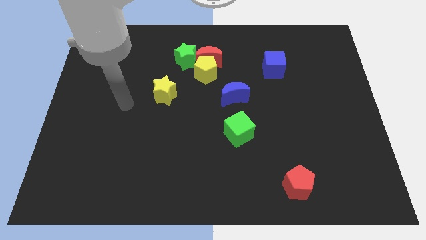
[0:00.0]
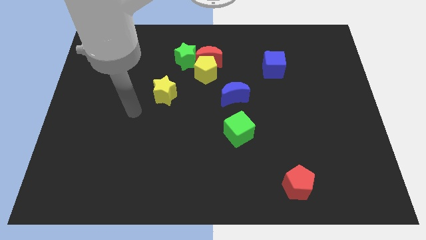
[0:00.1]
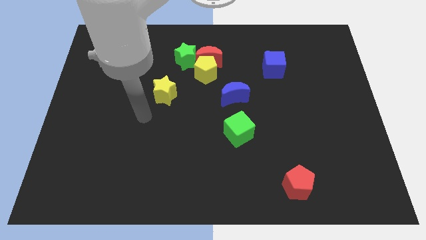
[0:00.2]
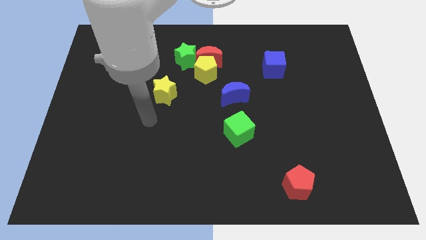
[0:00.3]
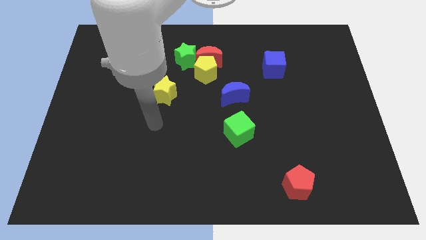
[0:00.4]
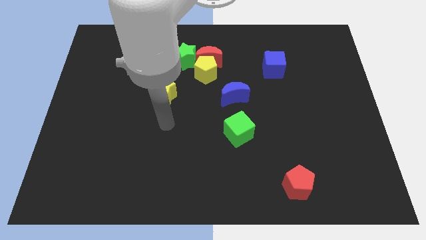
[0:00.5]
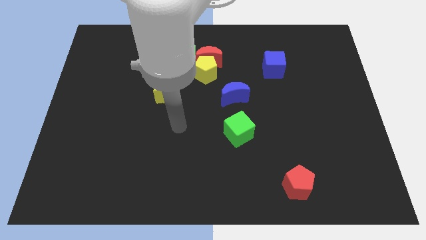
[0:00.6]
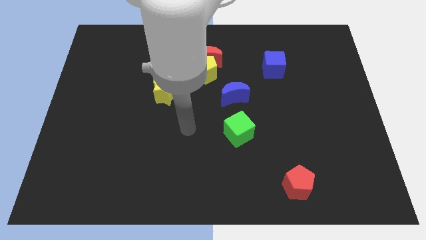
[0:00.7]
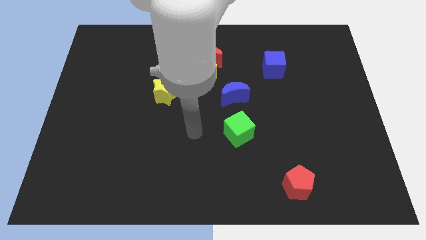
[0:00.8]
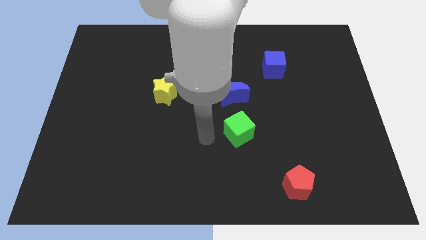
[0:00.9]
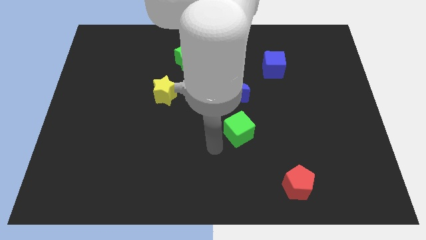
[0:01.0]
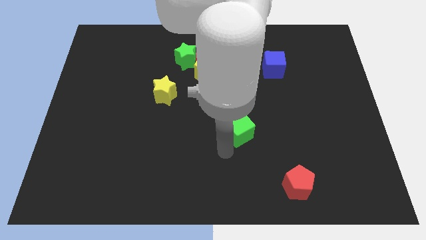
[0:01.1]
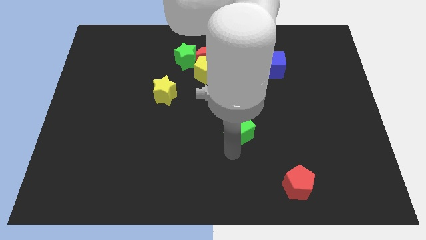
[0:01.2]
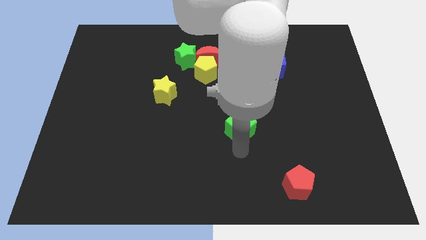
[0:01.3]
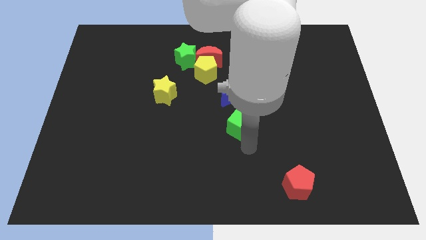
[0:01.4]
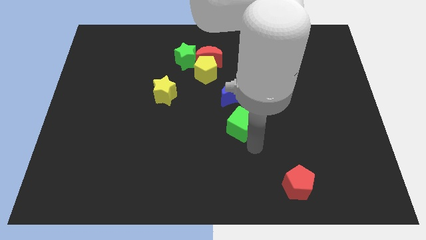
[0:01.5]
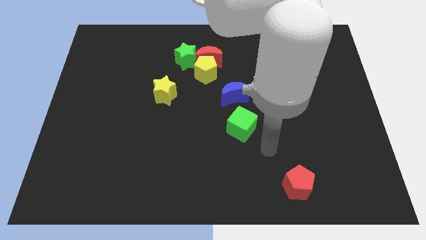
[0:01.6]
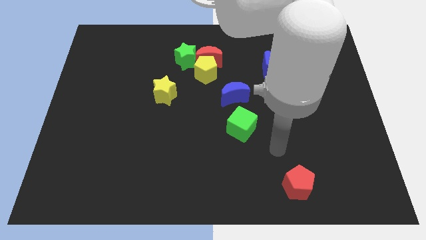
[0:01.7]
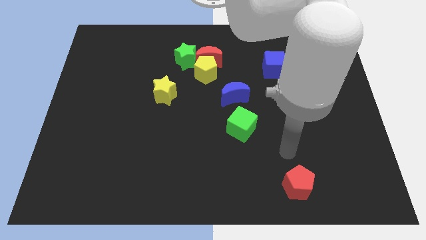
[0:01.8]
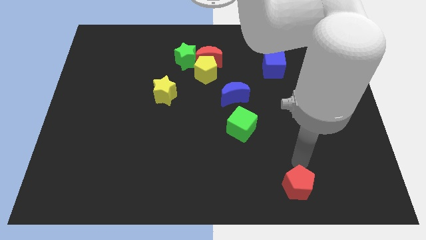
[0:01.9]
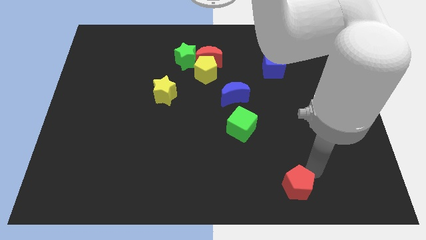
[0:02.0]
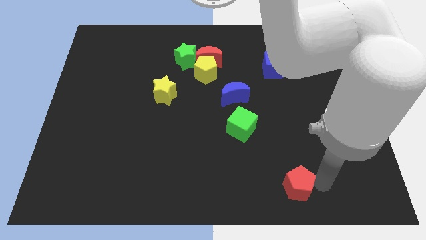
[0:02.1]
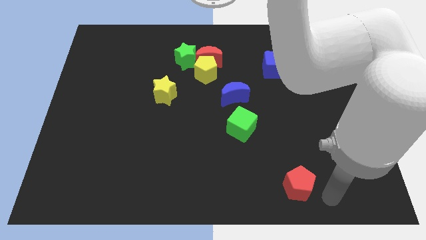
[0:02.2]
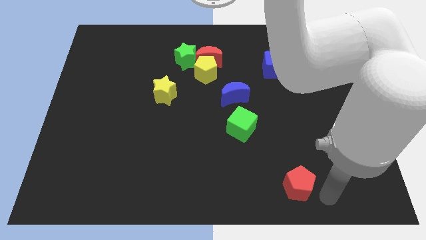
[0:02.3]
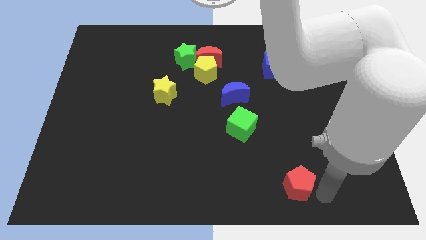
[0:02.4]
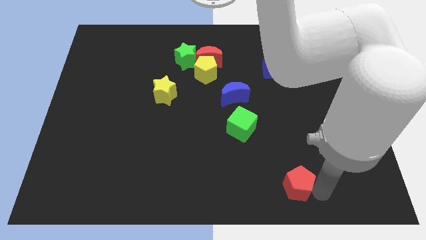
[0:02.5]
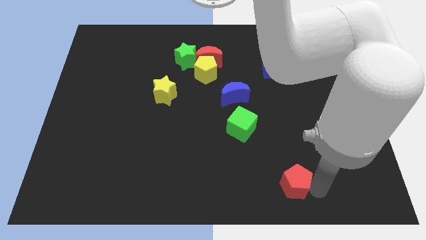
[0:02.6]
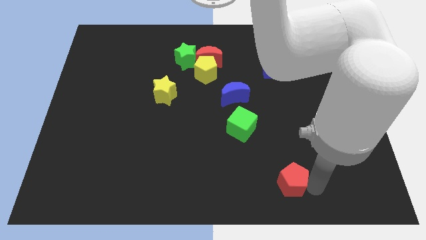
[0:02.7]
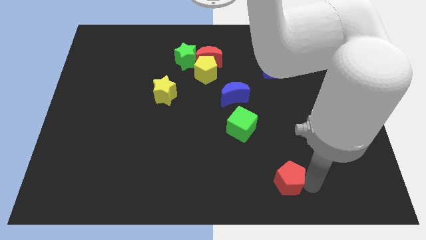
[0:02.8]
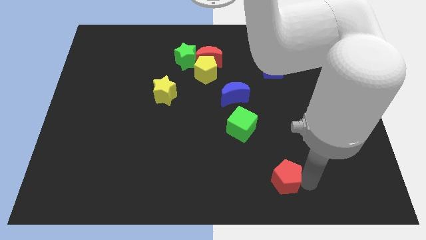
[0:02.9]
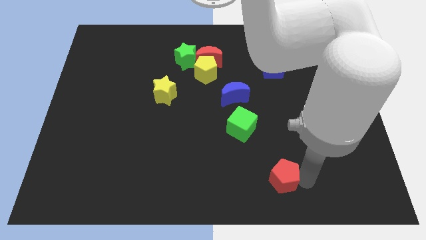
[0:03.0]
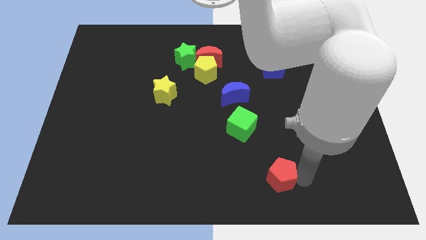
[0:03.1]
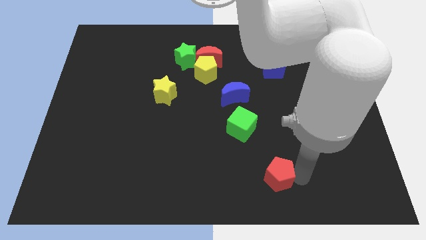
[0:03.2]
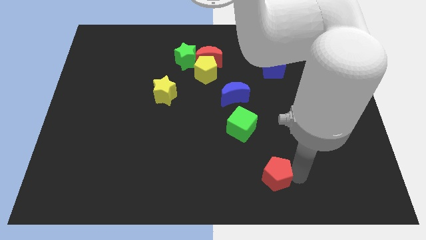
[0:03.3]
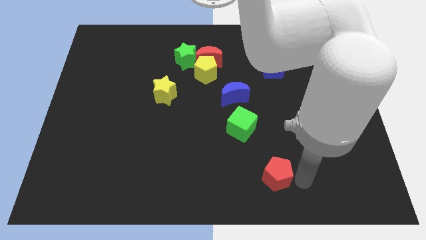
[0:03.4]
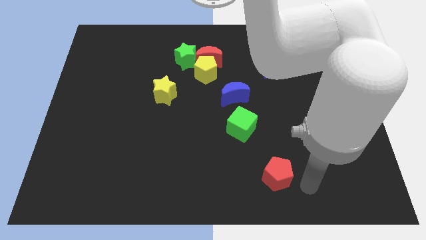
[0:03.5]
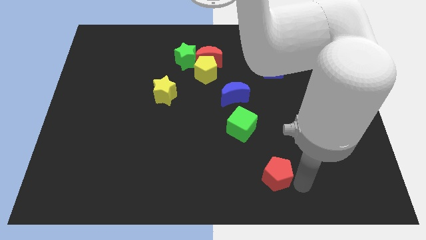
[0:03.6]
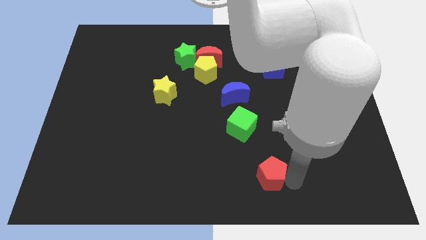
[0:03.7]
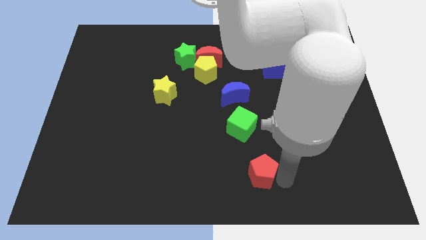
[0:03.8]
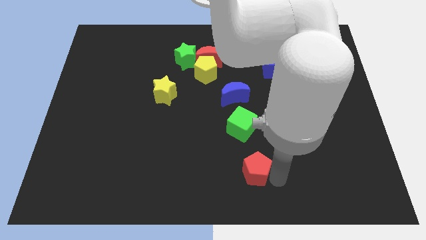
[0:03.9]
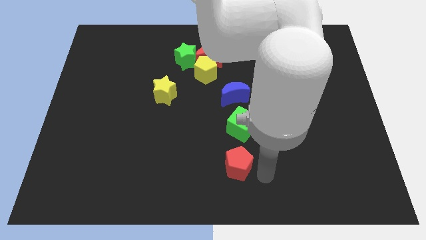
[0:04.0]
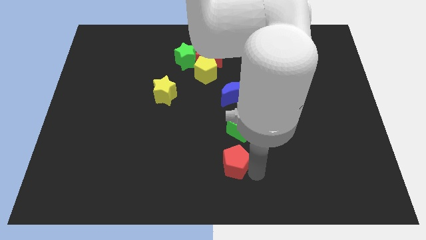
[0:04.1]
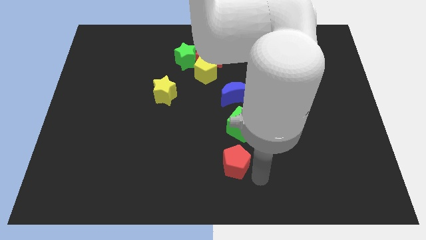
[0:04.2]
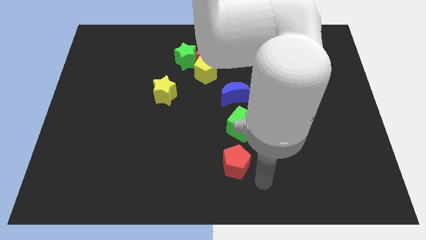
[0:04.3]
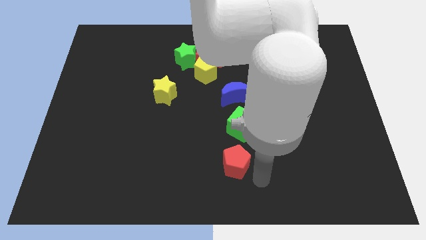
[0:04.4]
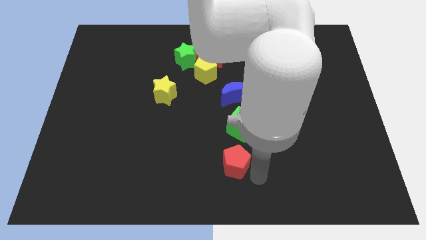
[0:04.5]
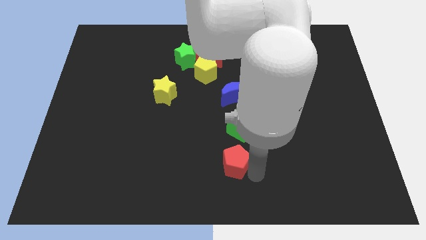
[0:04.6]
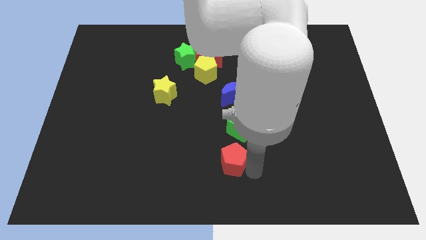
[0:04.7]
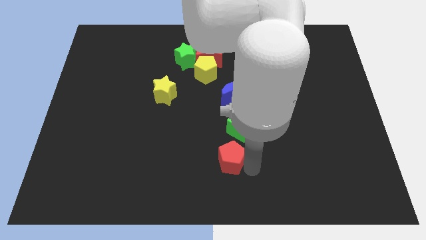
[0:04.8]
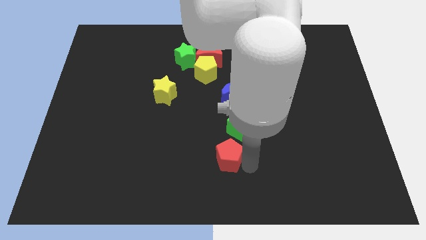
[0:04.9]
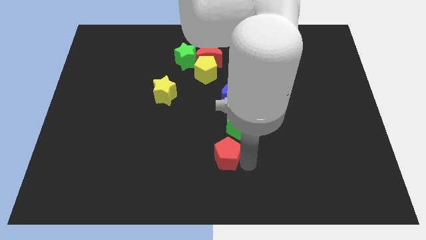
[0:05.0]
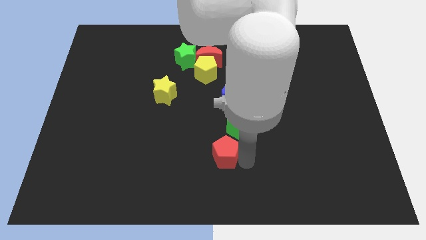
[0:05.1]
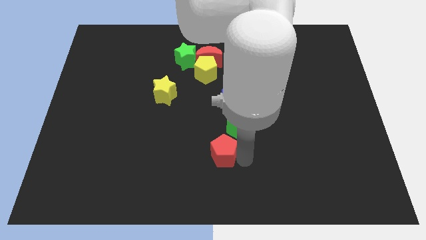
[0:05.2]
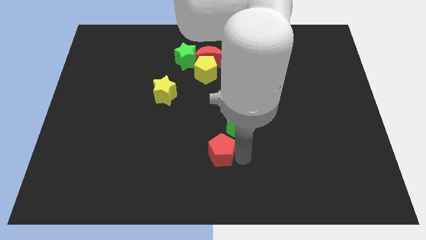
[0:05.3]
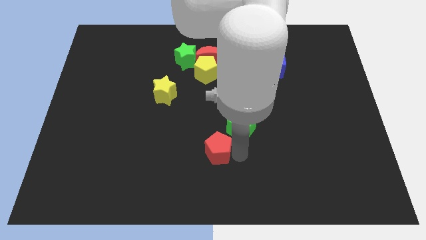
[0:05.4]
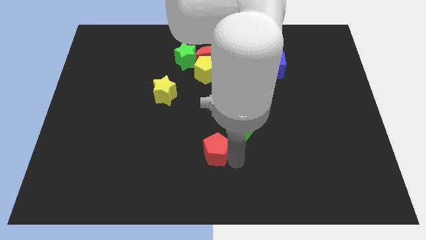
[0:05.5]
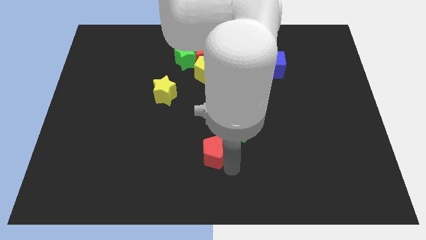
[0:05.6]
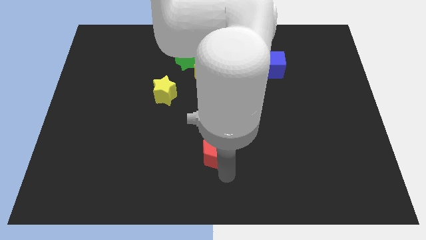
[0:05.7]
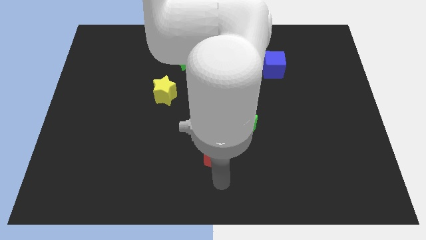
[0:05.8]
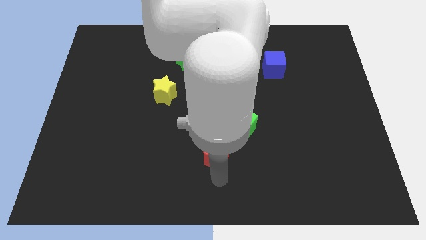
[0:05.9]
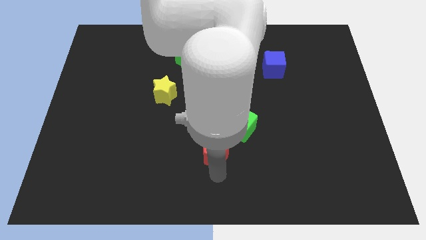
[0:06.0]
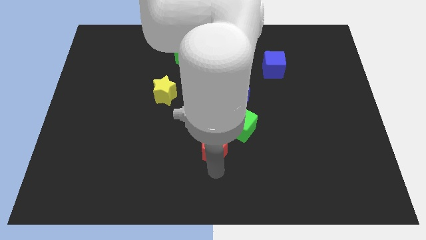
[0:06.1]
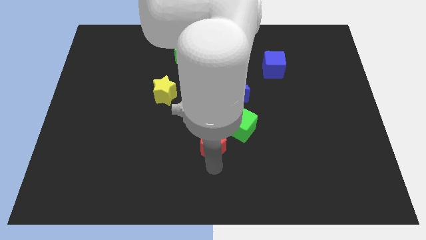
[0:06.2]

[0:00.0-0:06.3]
slide the red pentagon to the center of the board
